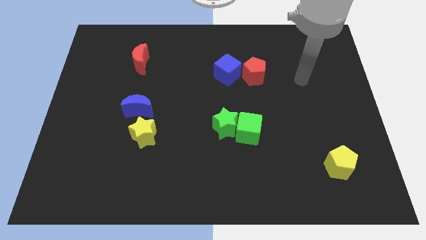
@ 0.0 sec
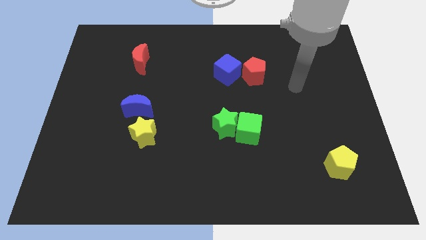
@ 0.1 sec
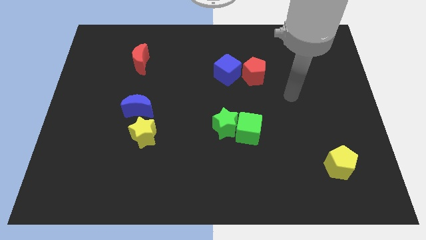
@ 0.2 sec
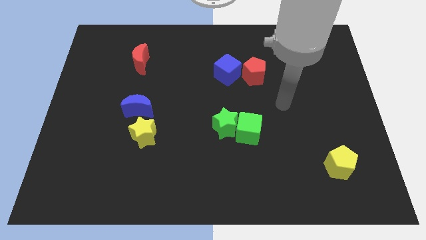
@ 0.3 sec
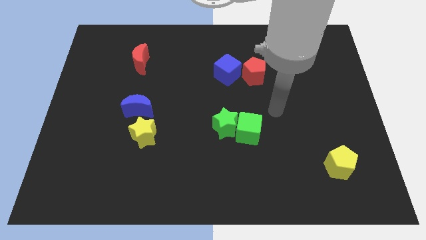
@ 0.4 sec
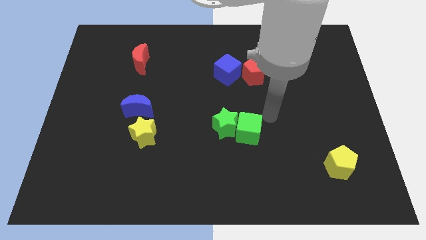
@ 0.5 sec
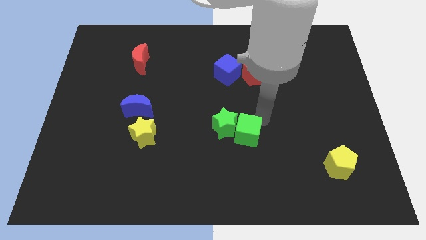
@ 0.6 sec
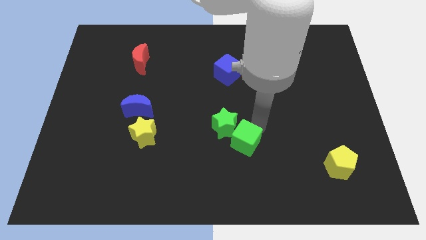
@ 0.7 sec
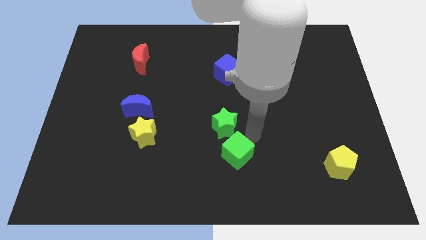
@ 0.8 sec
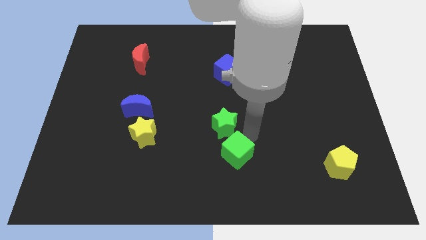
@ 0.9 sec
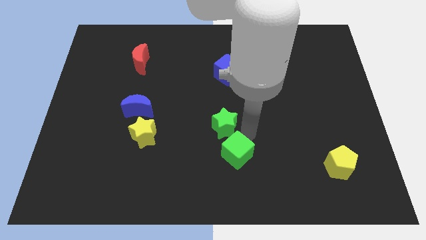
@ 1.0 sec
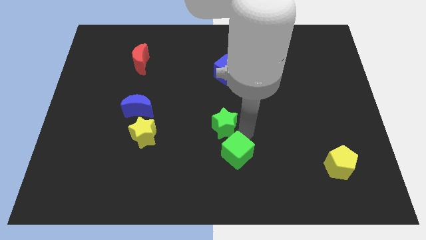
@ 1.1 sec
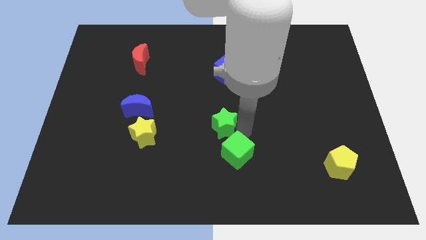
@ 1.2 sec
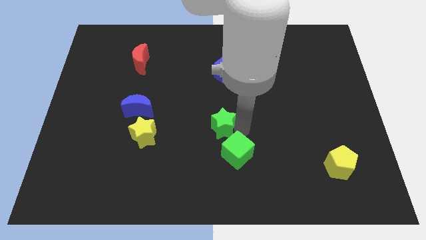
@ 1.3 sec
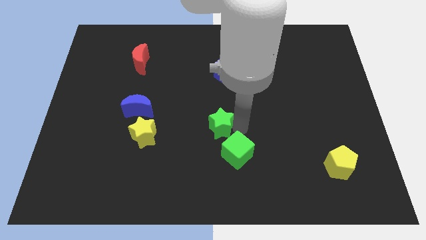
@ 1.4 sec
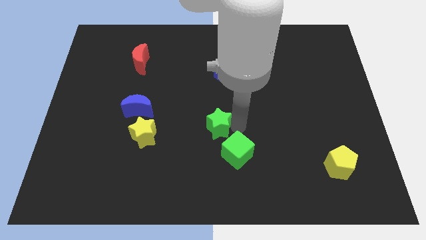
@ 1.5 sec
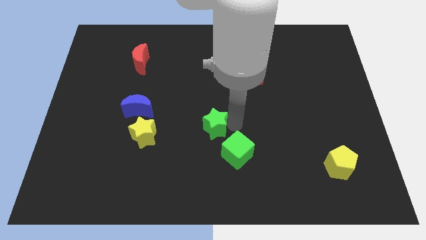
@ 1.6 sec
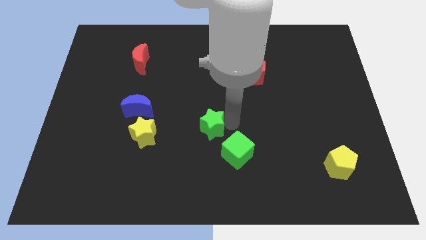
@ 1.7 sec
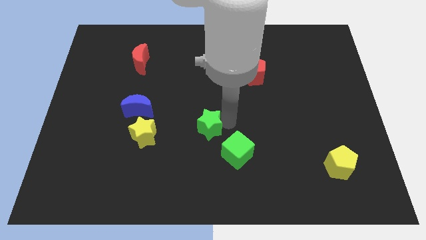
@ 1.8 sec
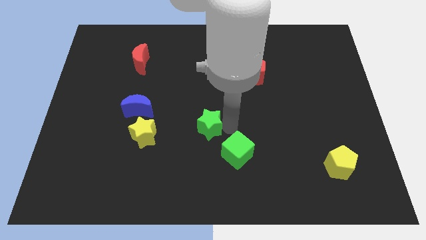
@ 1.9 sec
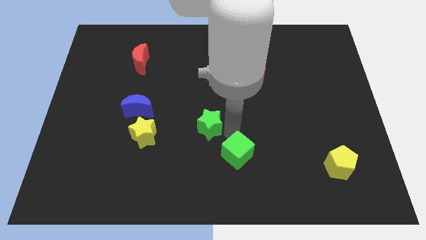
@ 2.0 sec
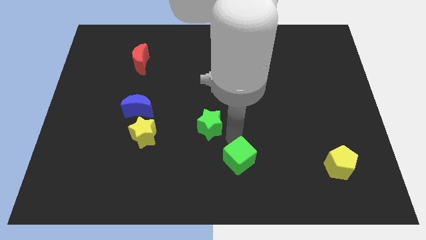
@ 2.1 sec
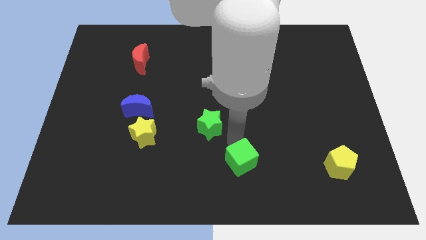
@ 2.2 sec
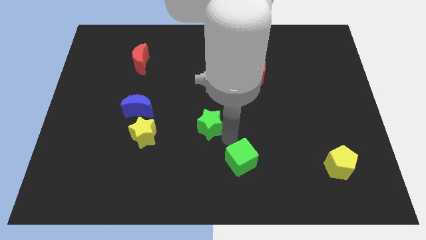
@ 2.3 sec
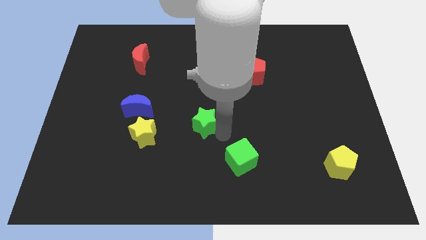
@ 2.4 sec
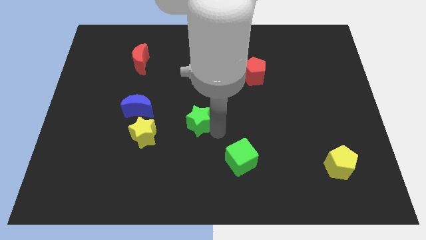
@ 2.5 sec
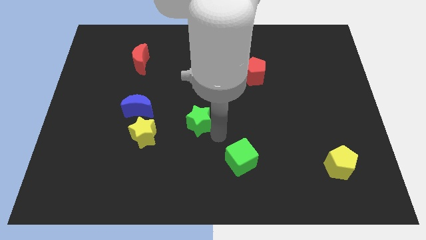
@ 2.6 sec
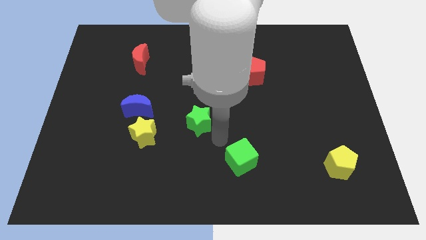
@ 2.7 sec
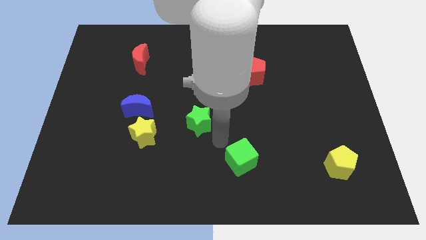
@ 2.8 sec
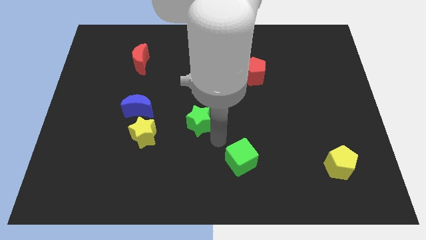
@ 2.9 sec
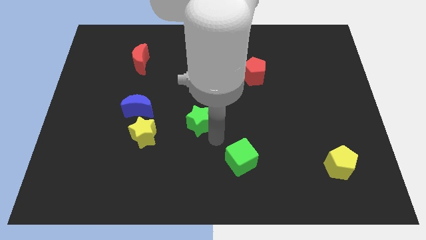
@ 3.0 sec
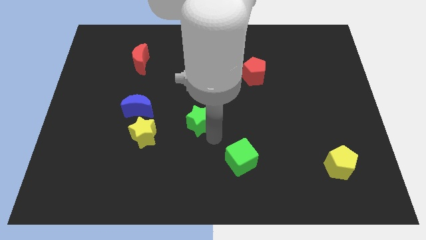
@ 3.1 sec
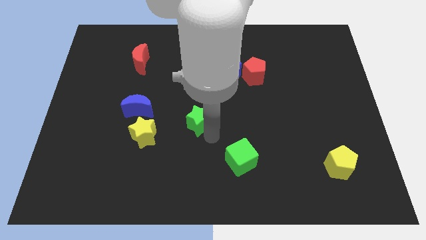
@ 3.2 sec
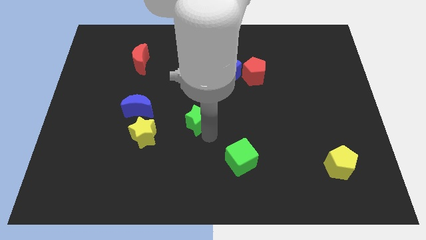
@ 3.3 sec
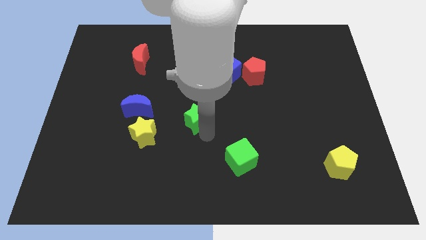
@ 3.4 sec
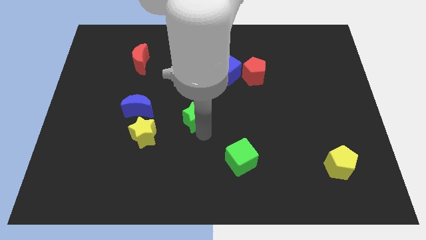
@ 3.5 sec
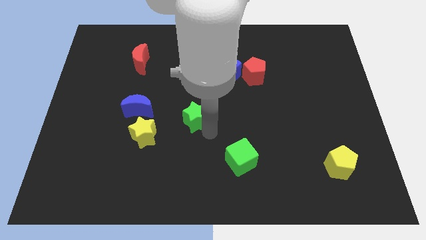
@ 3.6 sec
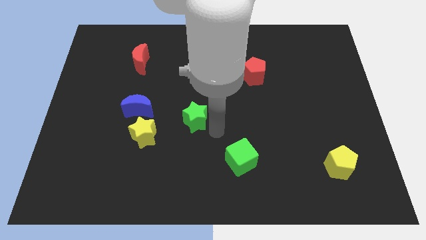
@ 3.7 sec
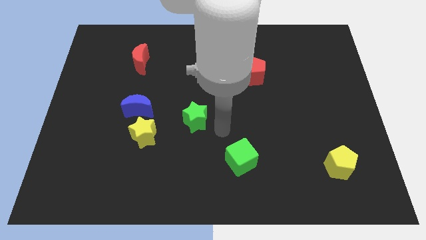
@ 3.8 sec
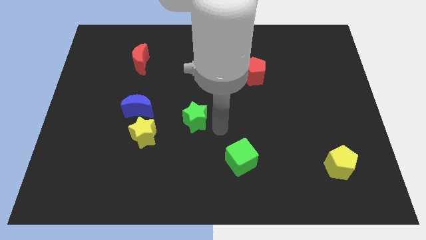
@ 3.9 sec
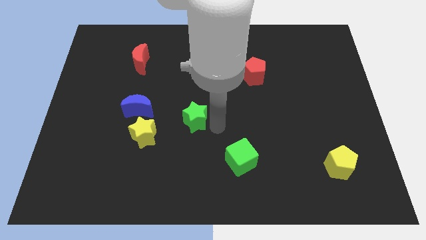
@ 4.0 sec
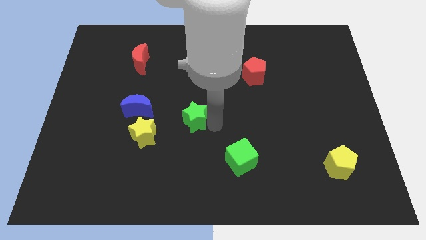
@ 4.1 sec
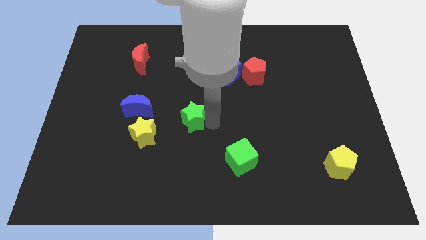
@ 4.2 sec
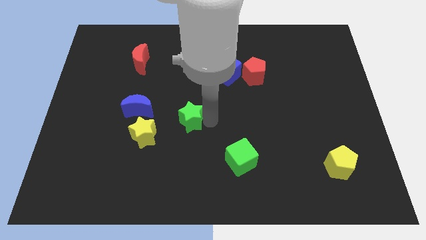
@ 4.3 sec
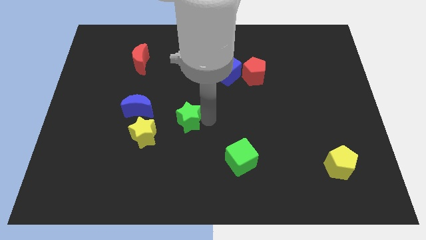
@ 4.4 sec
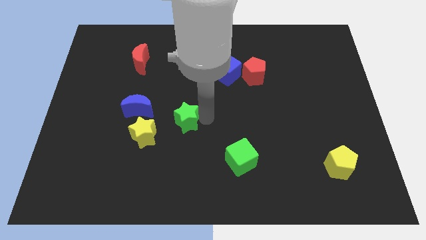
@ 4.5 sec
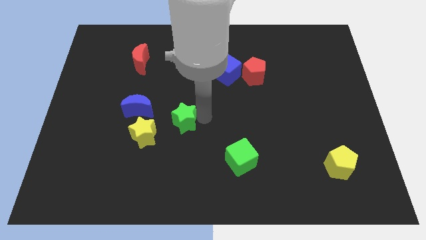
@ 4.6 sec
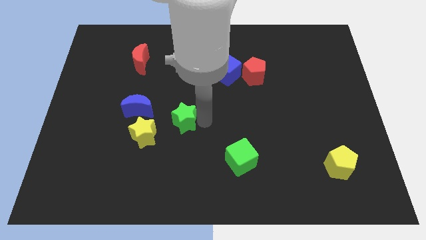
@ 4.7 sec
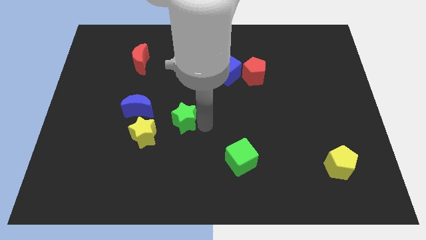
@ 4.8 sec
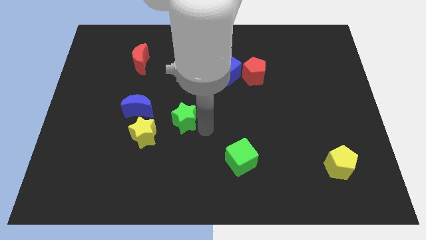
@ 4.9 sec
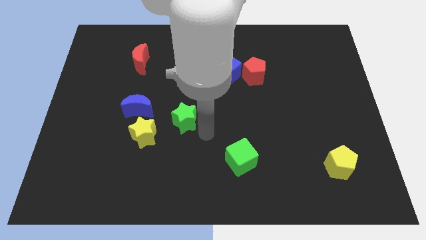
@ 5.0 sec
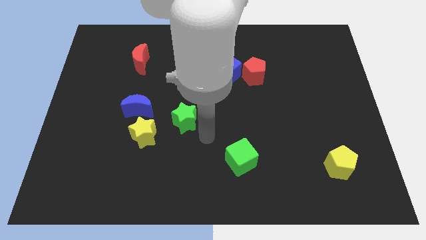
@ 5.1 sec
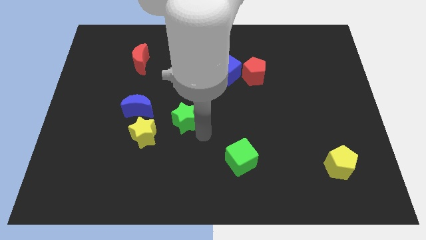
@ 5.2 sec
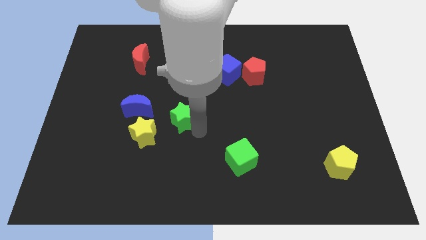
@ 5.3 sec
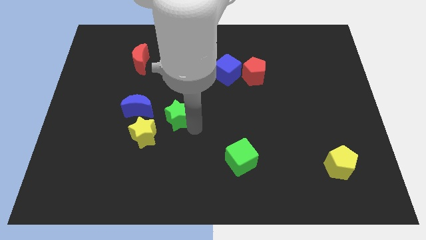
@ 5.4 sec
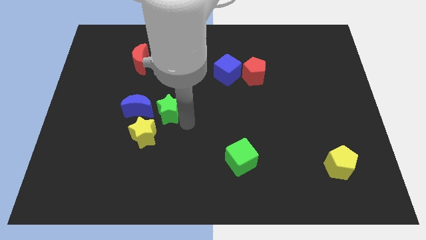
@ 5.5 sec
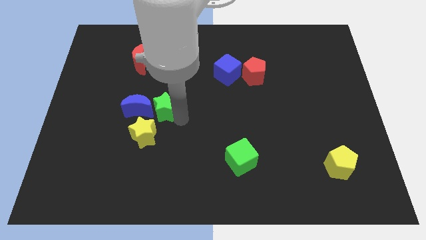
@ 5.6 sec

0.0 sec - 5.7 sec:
move the green star to the top side of the yellow star

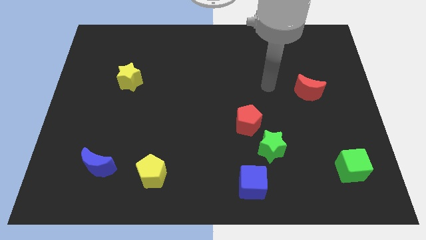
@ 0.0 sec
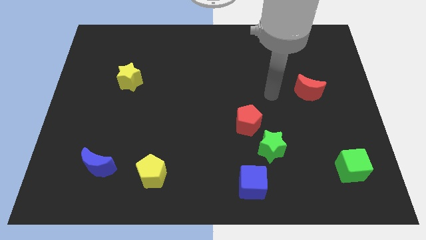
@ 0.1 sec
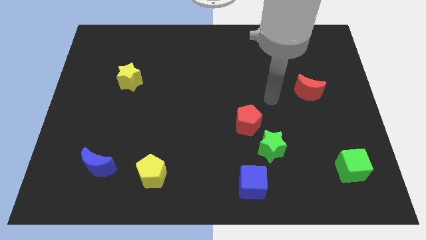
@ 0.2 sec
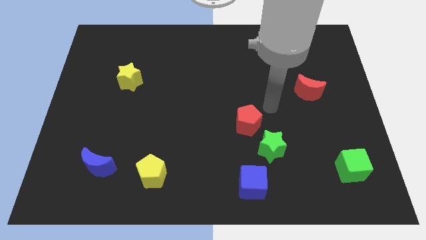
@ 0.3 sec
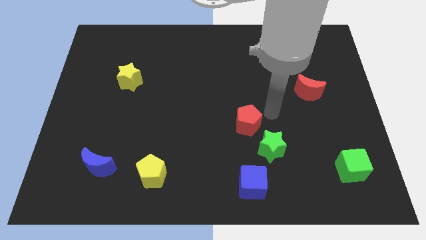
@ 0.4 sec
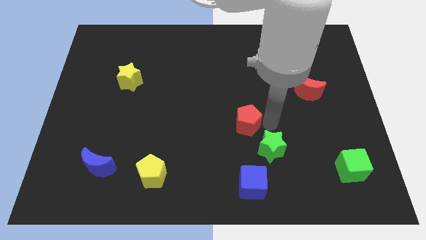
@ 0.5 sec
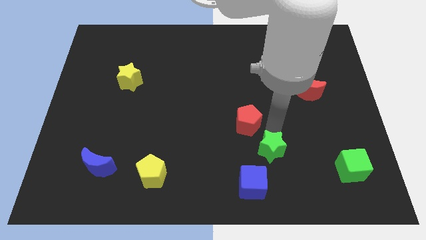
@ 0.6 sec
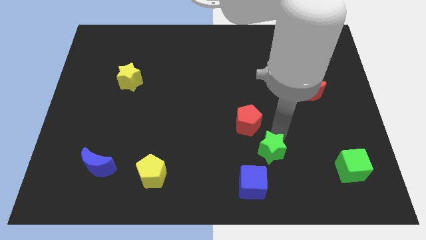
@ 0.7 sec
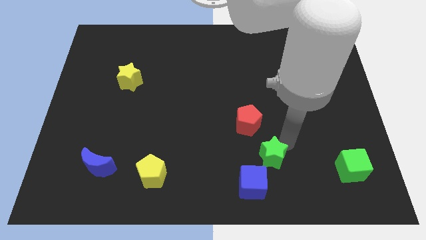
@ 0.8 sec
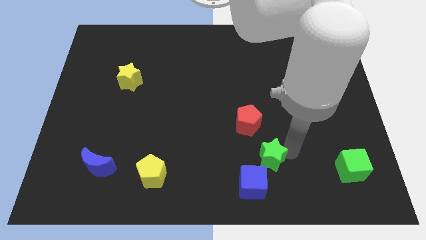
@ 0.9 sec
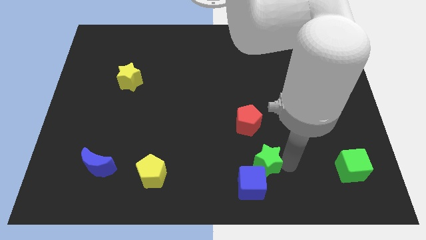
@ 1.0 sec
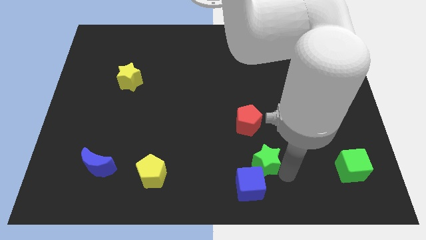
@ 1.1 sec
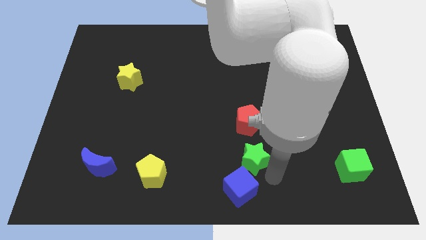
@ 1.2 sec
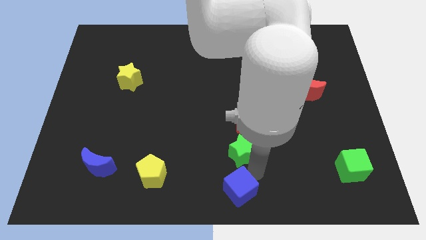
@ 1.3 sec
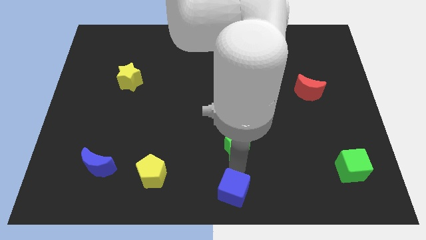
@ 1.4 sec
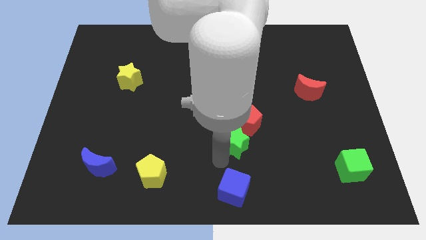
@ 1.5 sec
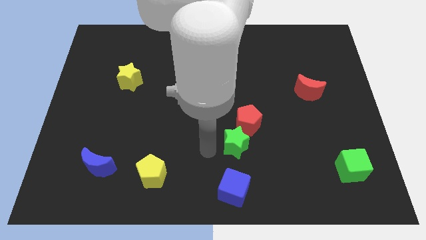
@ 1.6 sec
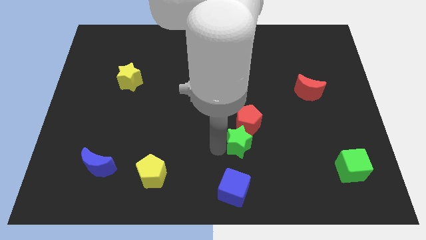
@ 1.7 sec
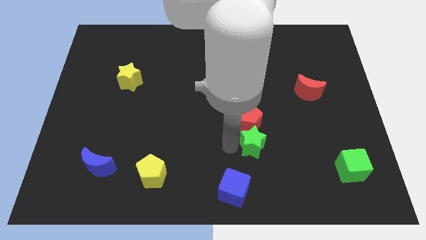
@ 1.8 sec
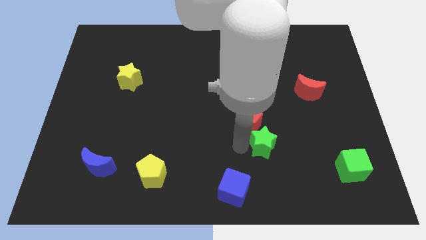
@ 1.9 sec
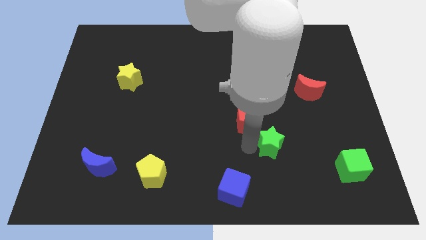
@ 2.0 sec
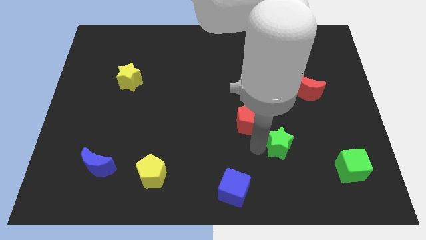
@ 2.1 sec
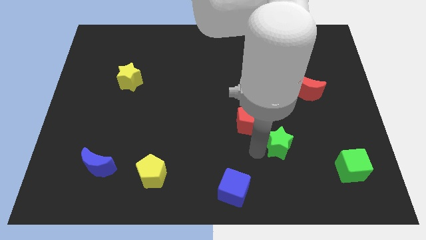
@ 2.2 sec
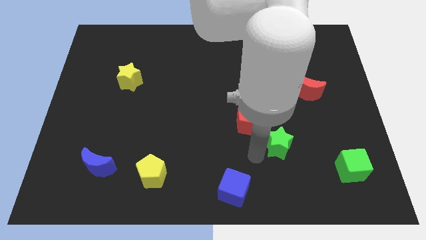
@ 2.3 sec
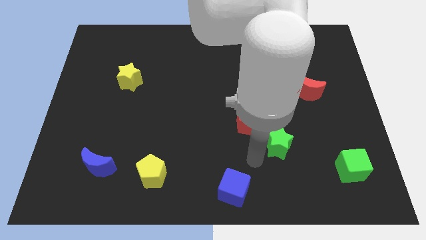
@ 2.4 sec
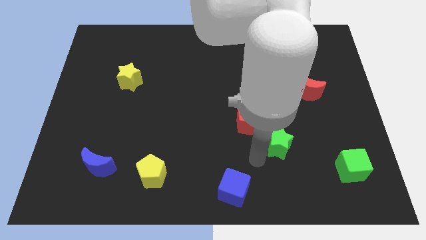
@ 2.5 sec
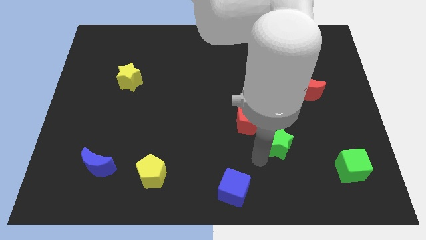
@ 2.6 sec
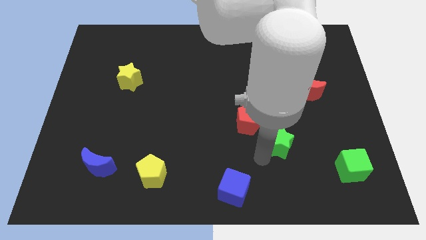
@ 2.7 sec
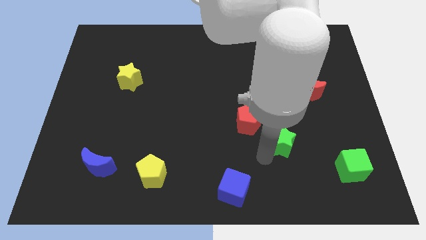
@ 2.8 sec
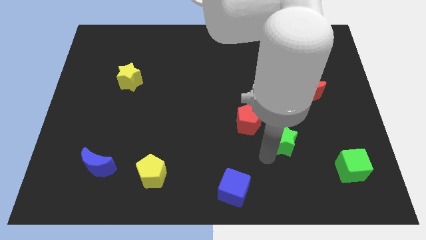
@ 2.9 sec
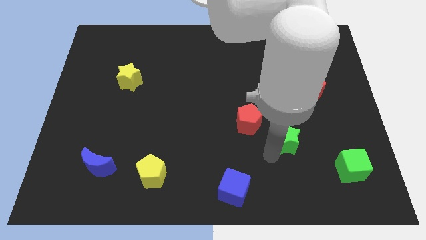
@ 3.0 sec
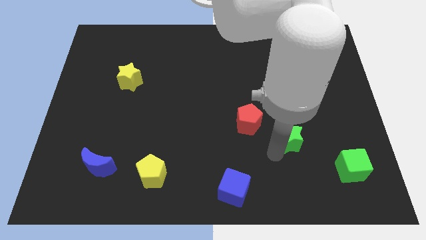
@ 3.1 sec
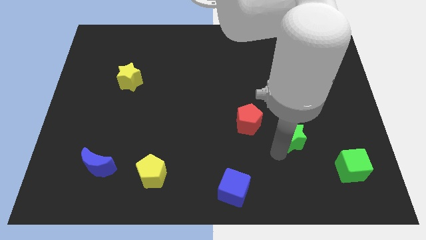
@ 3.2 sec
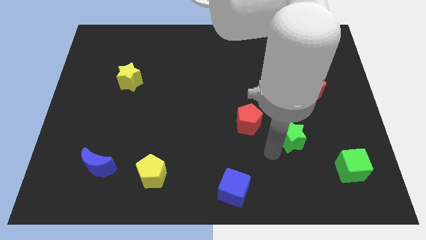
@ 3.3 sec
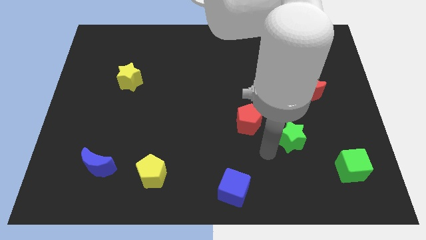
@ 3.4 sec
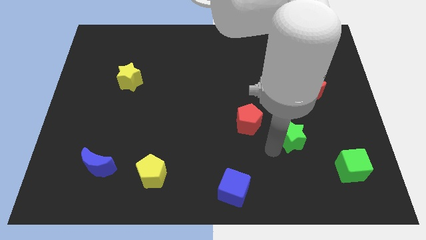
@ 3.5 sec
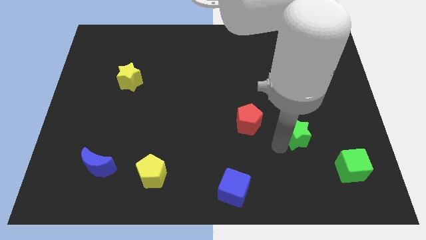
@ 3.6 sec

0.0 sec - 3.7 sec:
move the green star to the bottom side of the red moon
